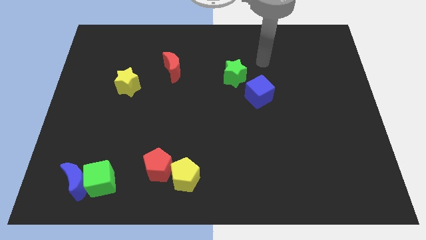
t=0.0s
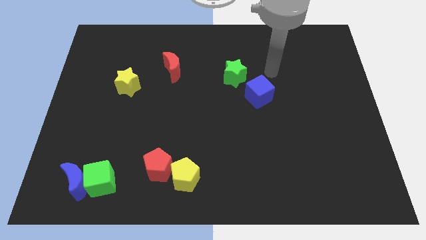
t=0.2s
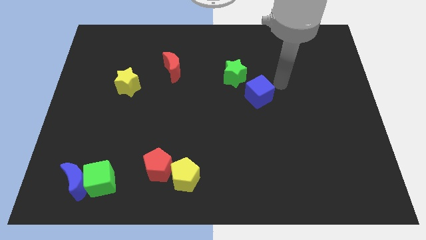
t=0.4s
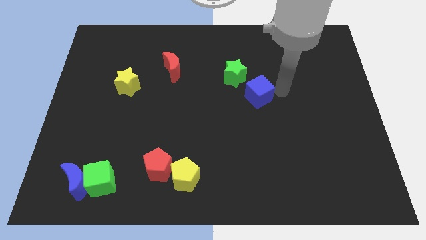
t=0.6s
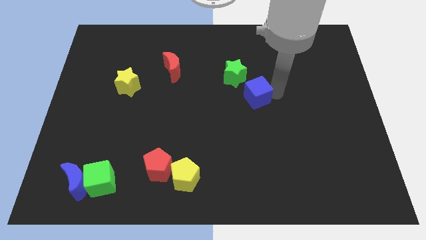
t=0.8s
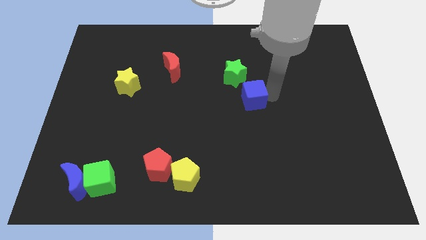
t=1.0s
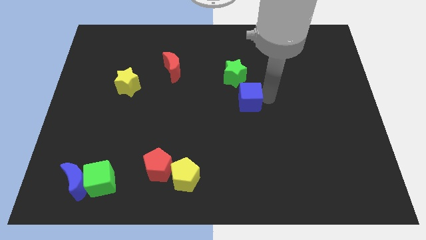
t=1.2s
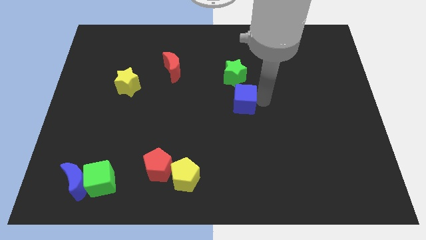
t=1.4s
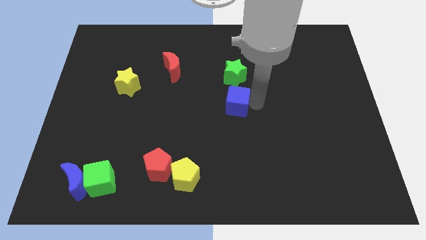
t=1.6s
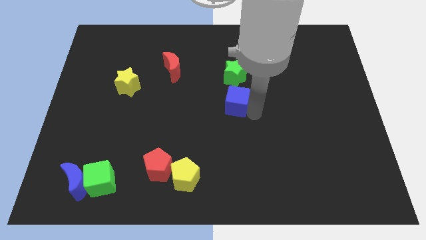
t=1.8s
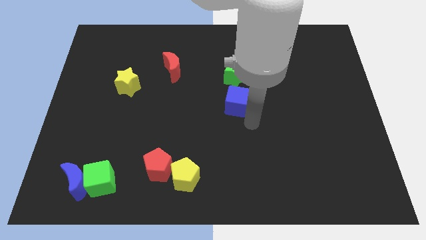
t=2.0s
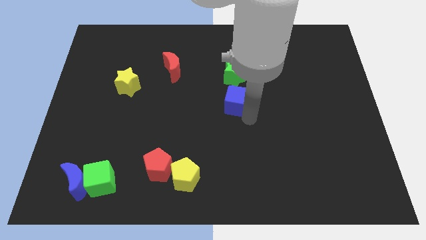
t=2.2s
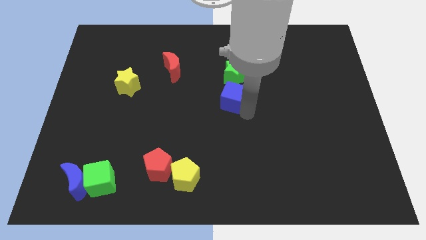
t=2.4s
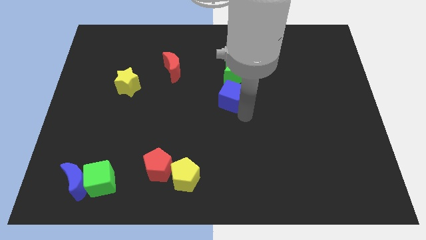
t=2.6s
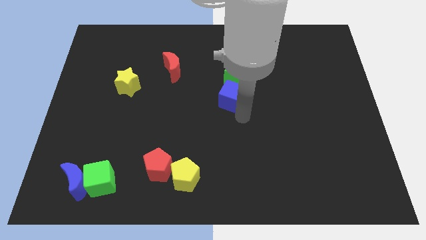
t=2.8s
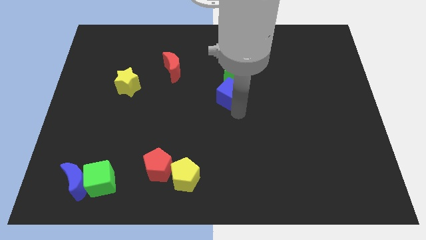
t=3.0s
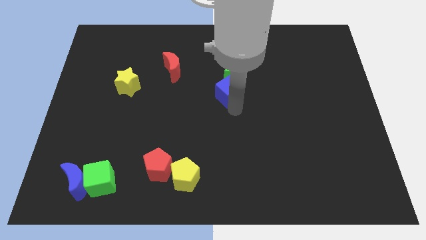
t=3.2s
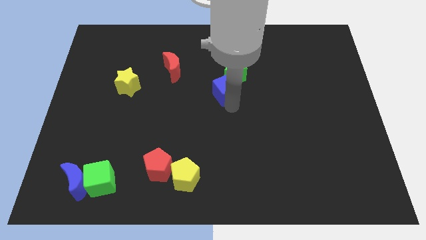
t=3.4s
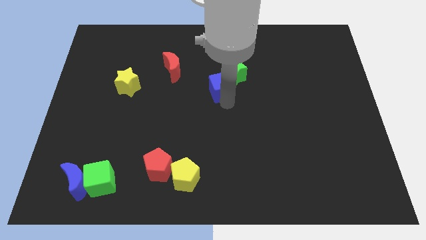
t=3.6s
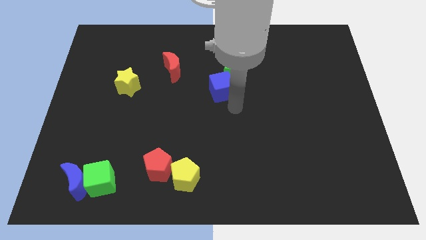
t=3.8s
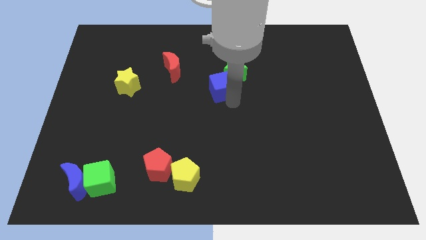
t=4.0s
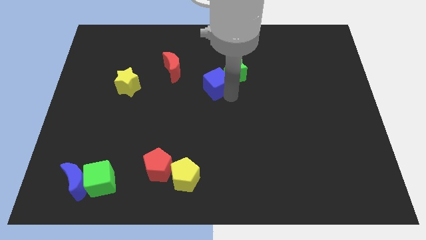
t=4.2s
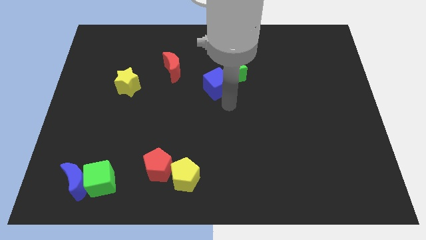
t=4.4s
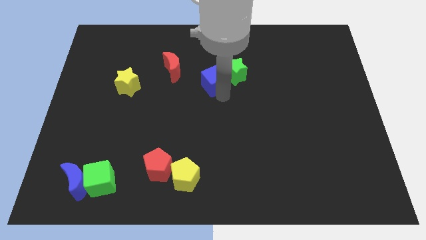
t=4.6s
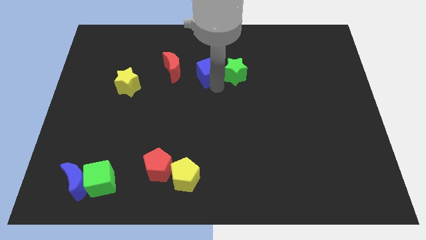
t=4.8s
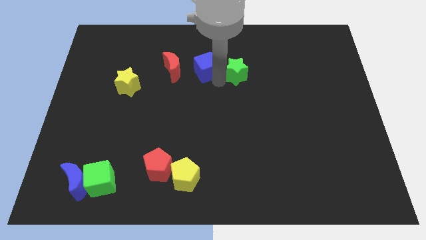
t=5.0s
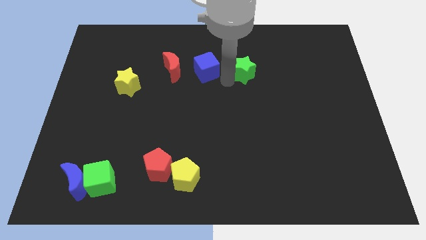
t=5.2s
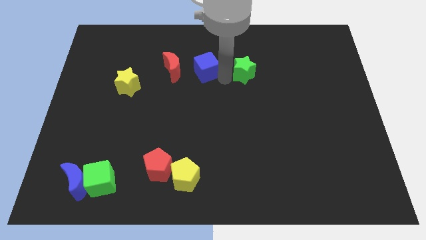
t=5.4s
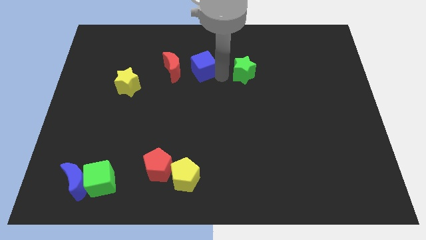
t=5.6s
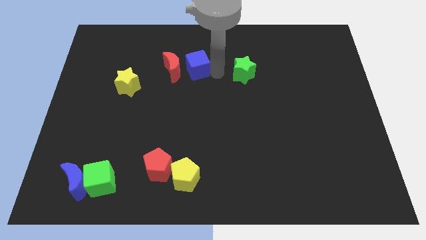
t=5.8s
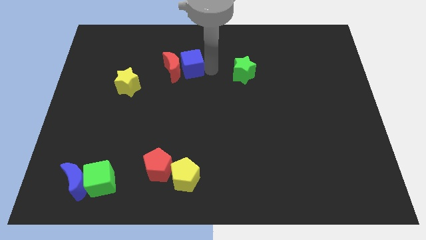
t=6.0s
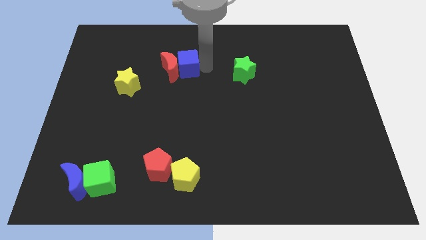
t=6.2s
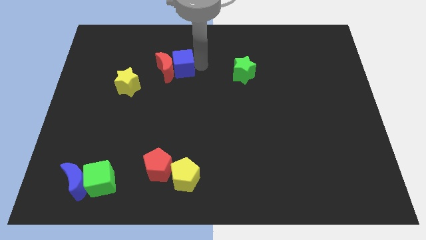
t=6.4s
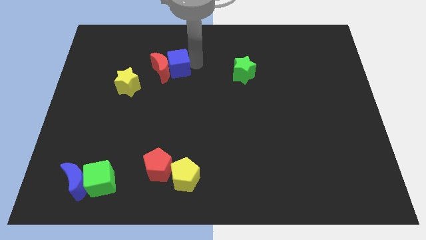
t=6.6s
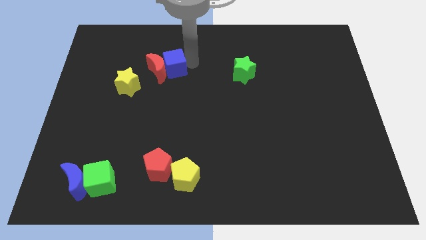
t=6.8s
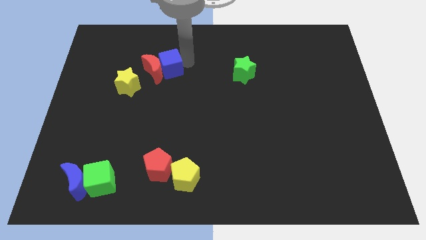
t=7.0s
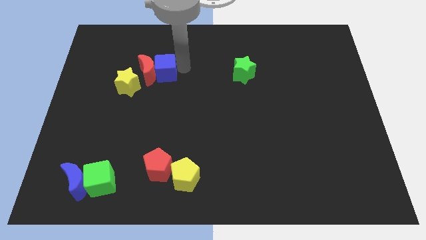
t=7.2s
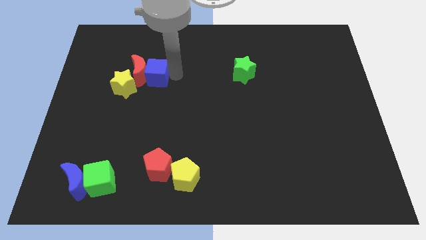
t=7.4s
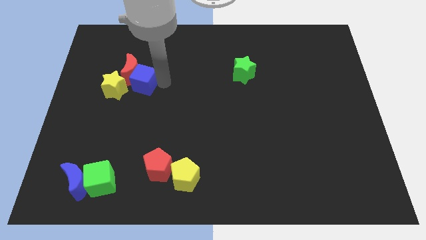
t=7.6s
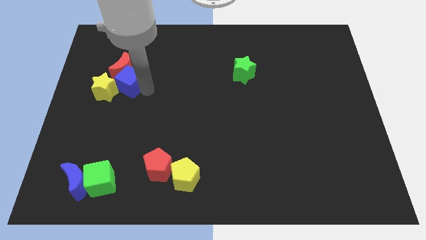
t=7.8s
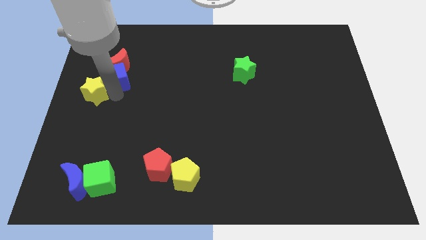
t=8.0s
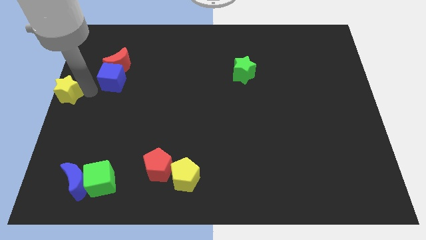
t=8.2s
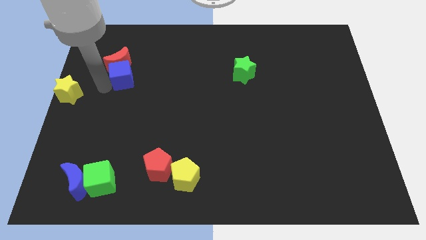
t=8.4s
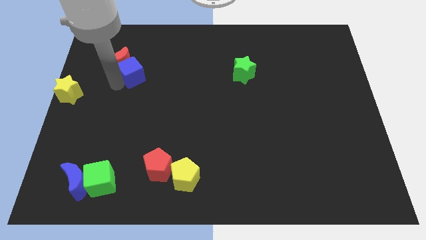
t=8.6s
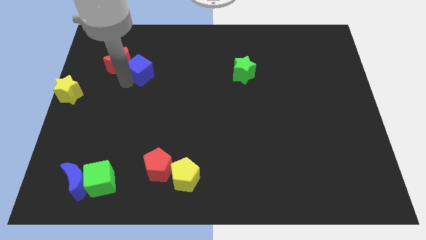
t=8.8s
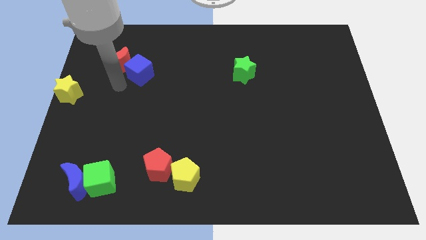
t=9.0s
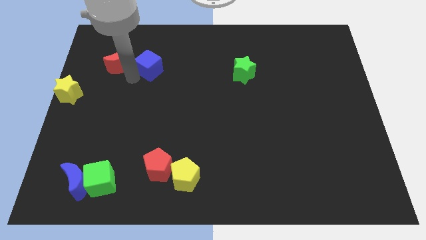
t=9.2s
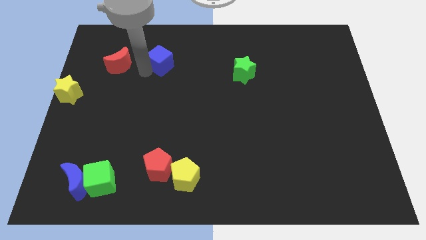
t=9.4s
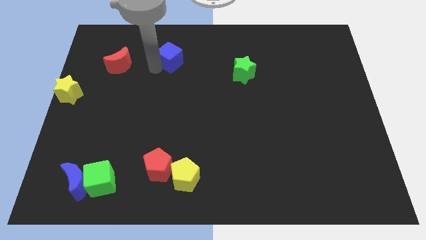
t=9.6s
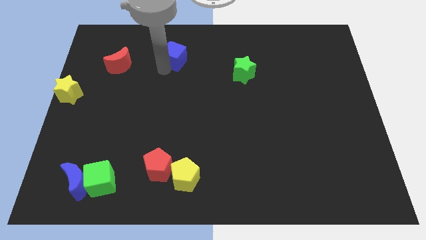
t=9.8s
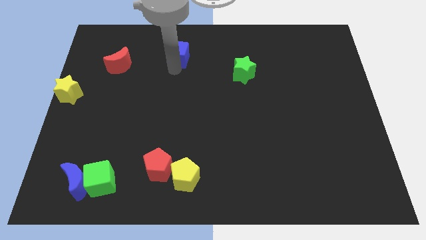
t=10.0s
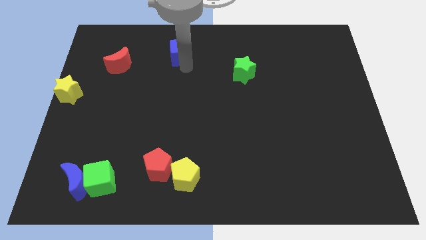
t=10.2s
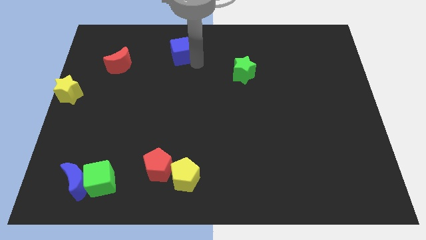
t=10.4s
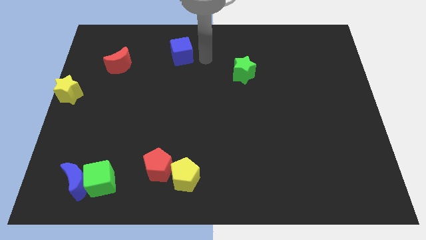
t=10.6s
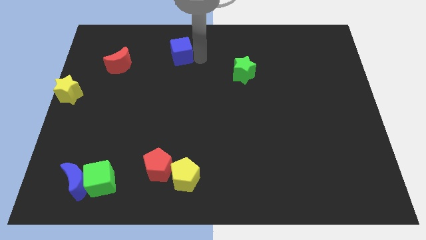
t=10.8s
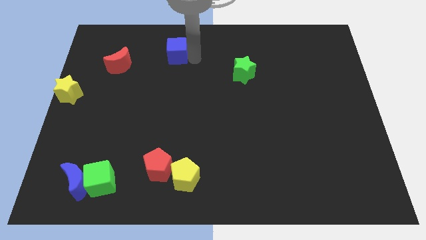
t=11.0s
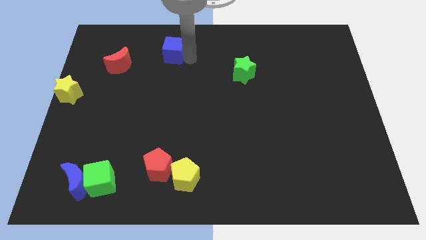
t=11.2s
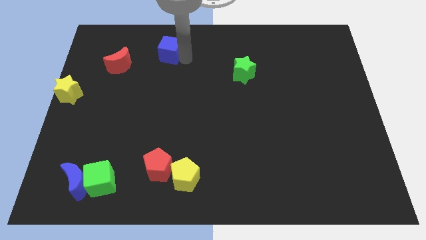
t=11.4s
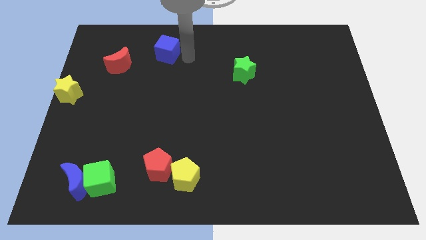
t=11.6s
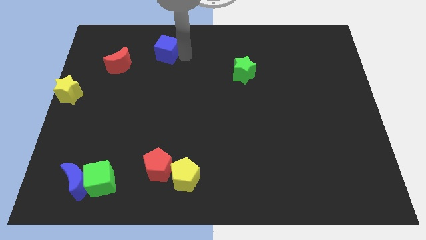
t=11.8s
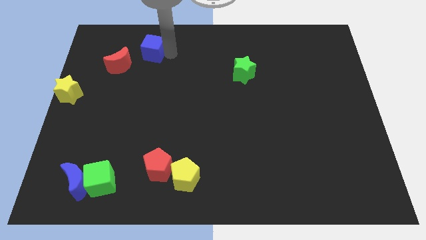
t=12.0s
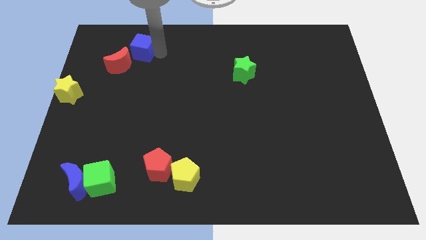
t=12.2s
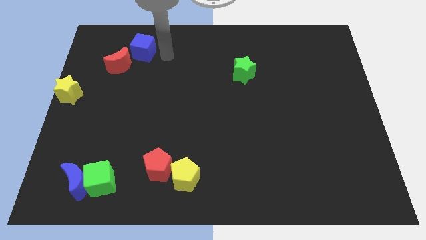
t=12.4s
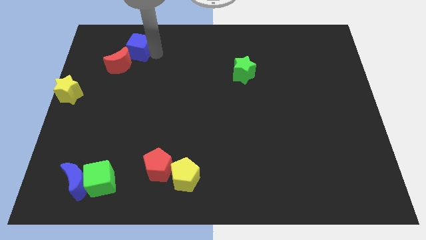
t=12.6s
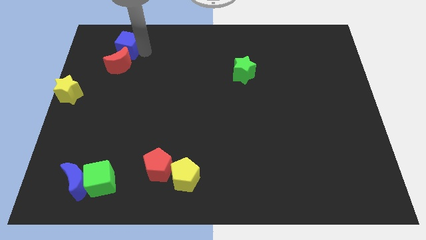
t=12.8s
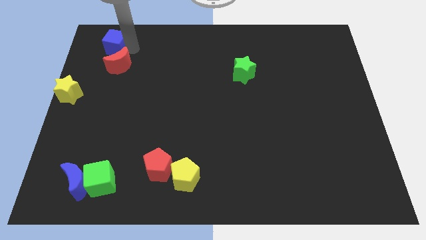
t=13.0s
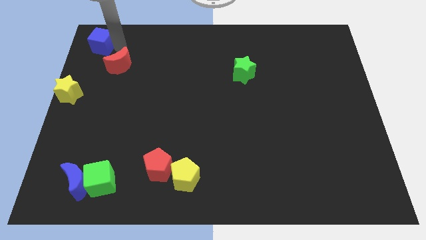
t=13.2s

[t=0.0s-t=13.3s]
put the blue cube to the top left
